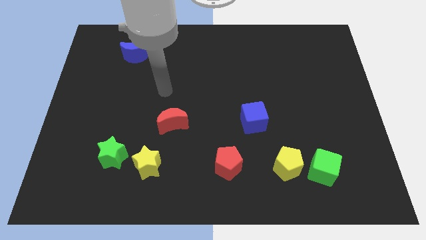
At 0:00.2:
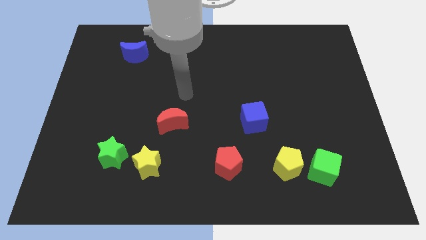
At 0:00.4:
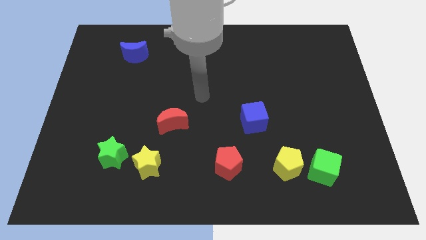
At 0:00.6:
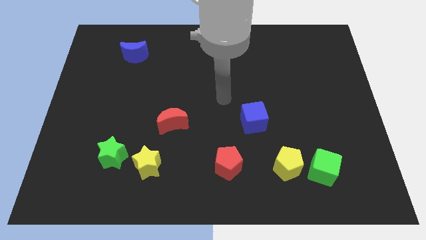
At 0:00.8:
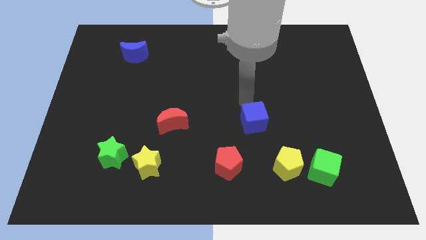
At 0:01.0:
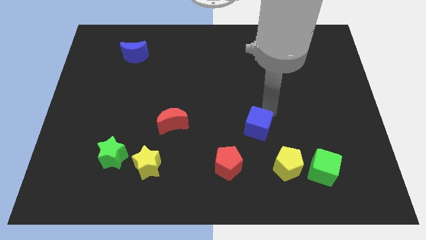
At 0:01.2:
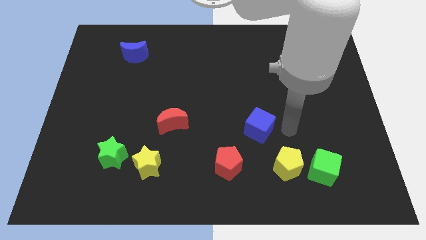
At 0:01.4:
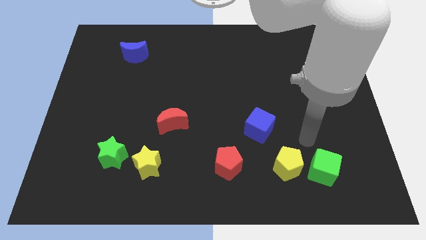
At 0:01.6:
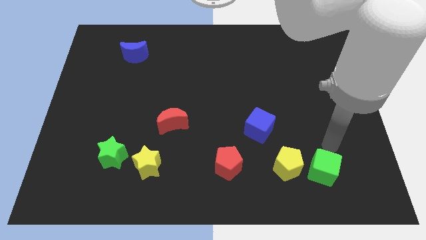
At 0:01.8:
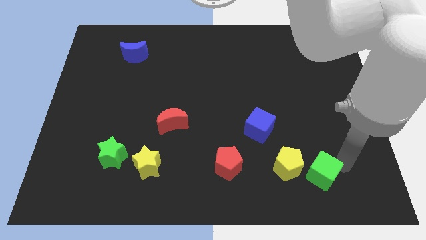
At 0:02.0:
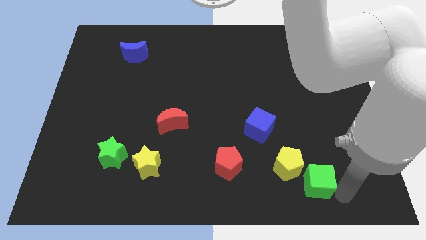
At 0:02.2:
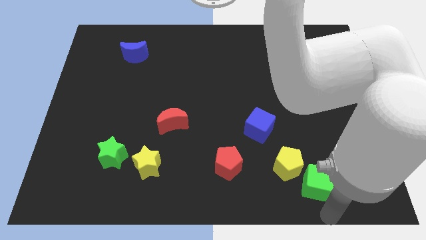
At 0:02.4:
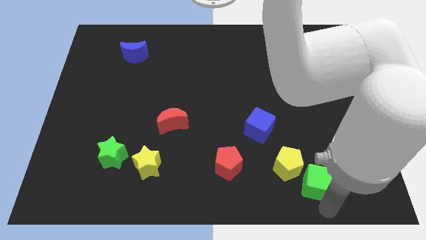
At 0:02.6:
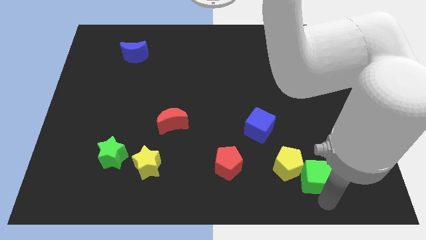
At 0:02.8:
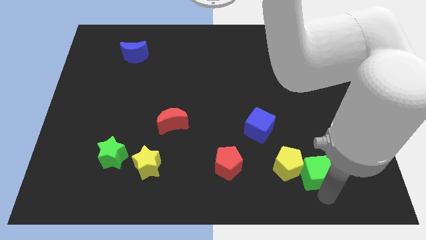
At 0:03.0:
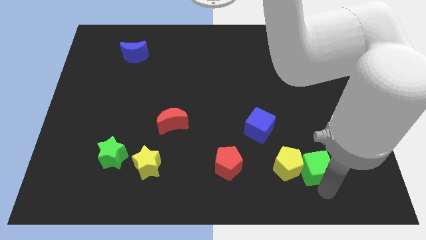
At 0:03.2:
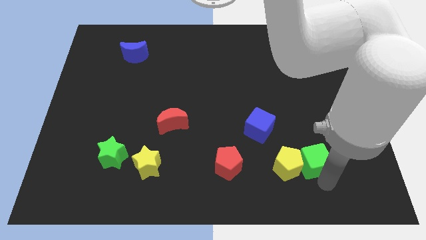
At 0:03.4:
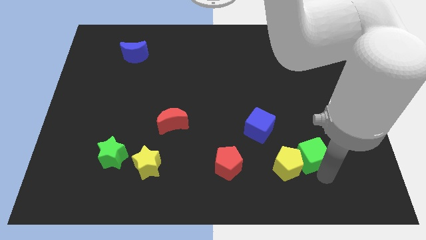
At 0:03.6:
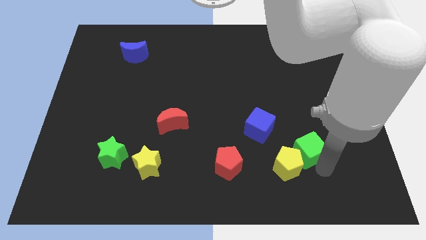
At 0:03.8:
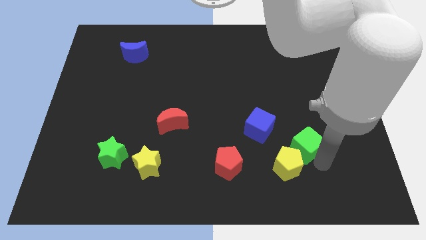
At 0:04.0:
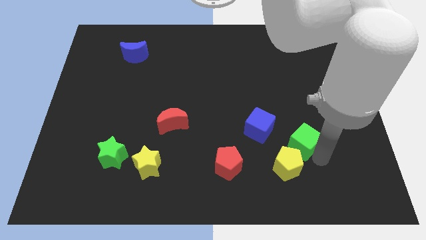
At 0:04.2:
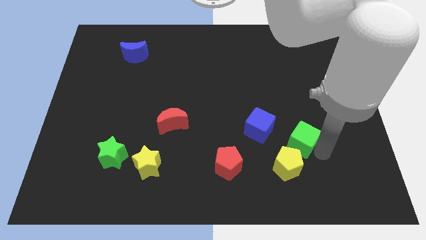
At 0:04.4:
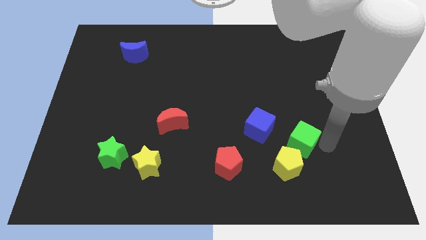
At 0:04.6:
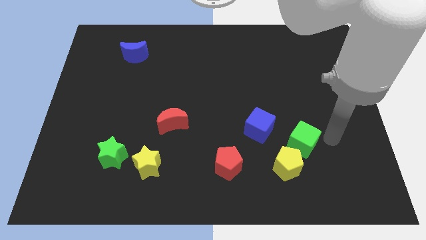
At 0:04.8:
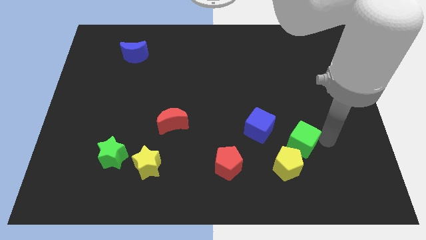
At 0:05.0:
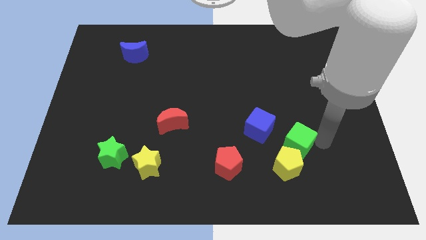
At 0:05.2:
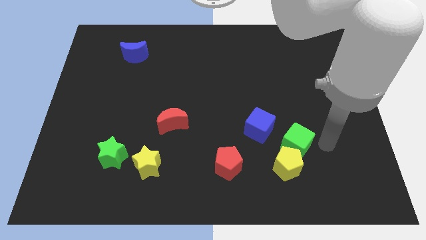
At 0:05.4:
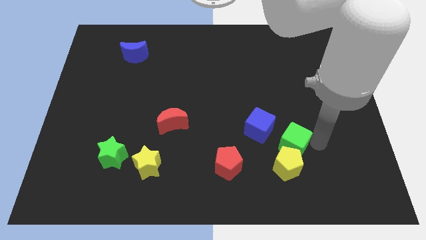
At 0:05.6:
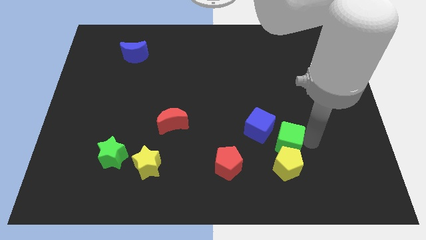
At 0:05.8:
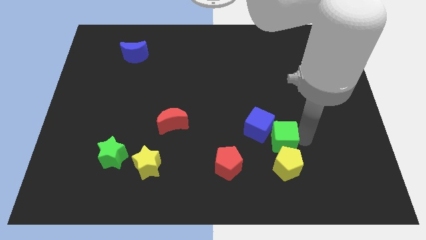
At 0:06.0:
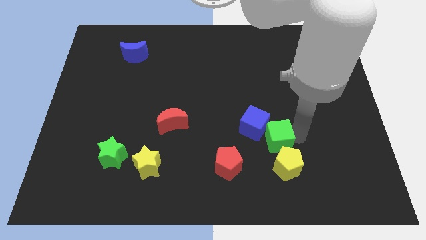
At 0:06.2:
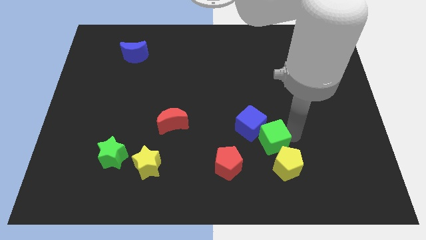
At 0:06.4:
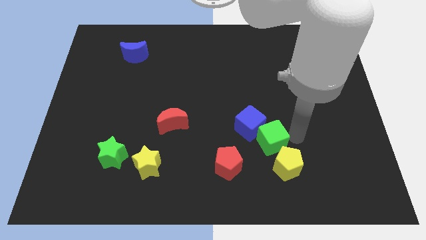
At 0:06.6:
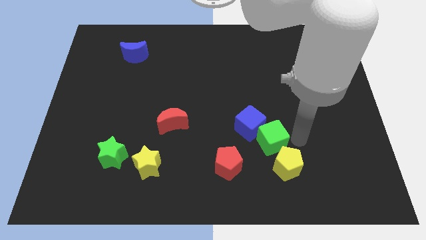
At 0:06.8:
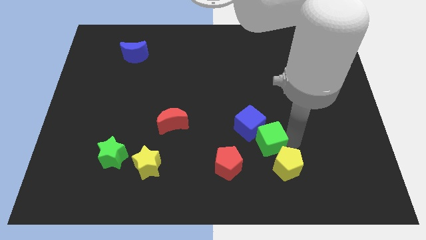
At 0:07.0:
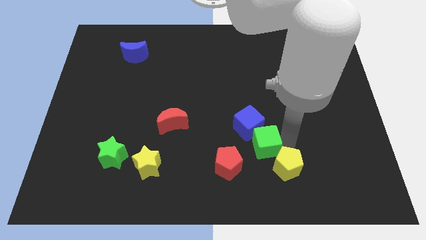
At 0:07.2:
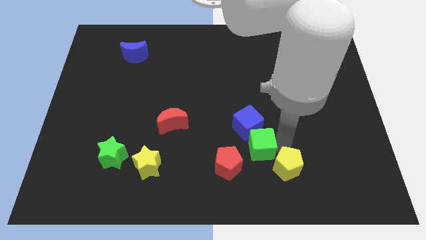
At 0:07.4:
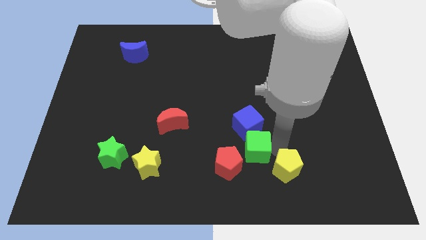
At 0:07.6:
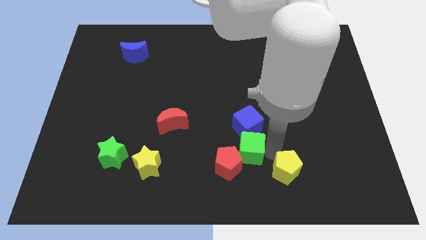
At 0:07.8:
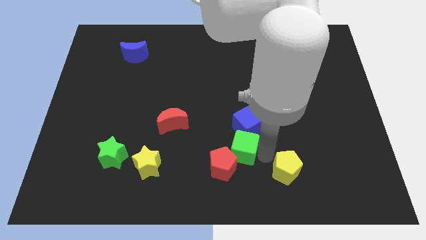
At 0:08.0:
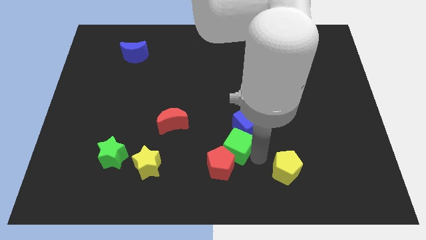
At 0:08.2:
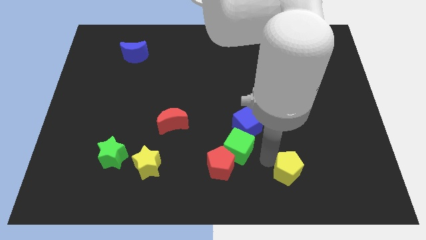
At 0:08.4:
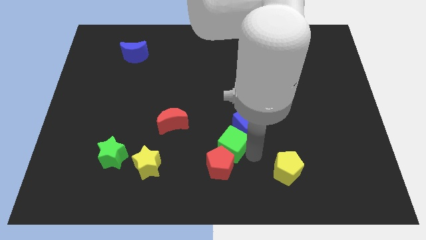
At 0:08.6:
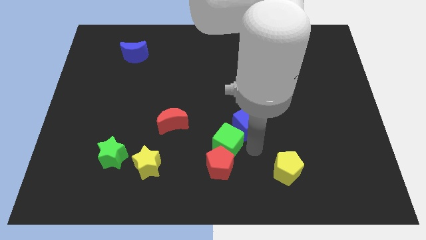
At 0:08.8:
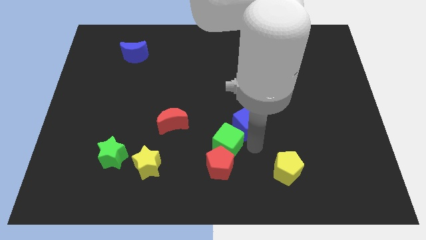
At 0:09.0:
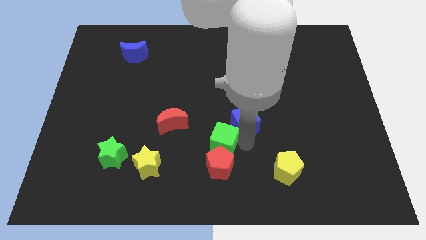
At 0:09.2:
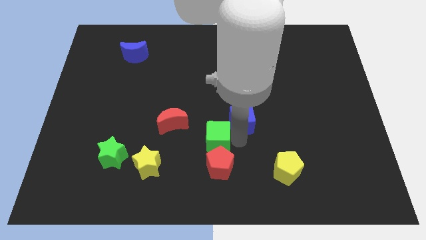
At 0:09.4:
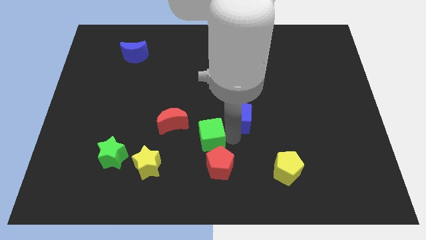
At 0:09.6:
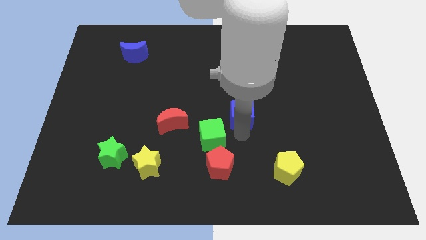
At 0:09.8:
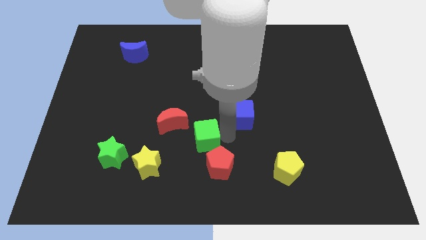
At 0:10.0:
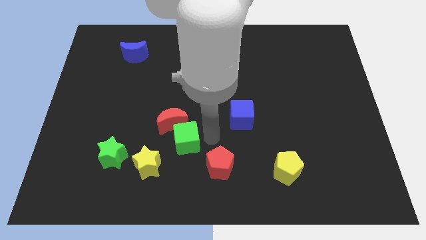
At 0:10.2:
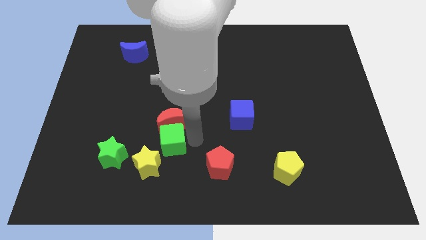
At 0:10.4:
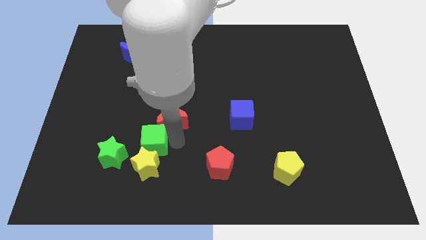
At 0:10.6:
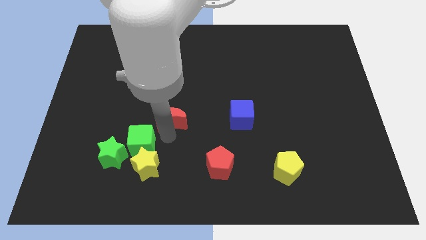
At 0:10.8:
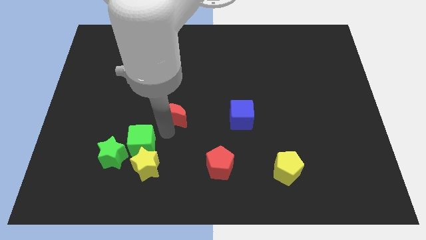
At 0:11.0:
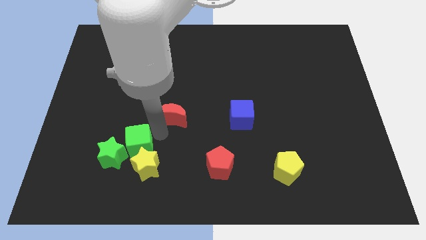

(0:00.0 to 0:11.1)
push the green cube towards the green star

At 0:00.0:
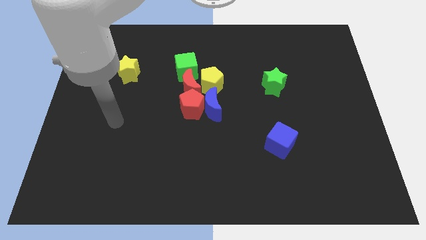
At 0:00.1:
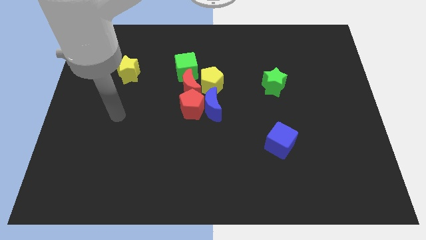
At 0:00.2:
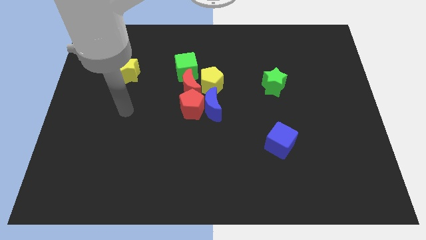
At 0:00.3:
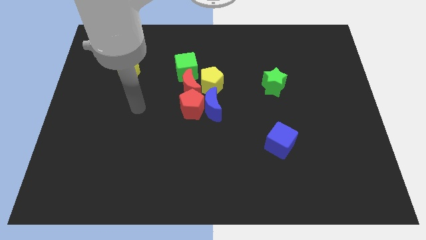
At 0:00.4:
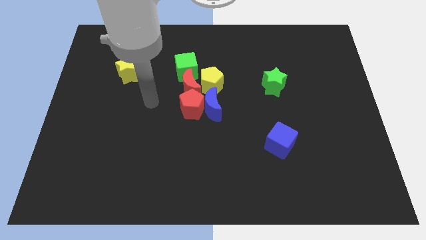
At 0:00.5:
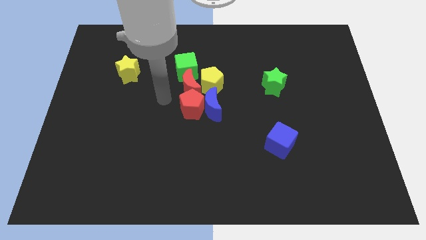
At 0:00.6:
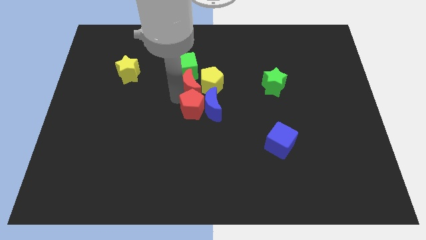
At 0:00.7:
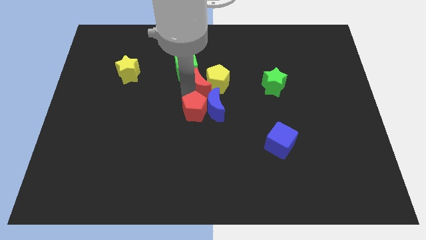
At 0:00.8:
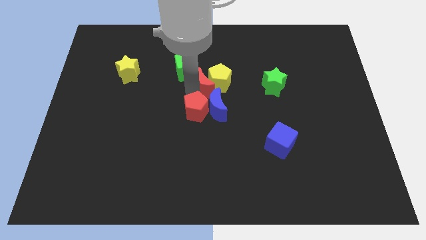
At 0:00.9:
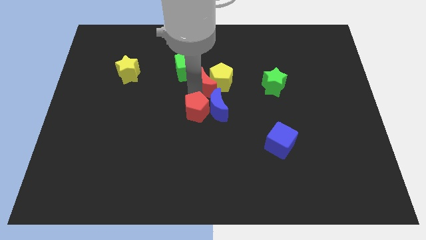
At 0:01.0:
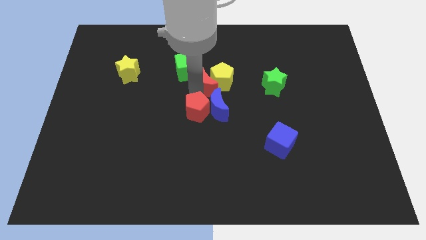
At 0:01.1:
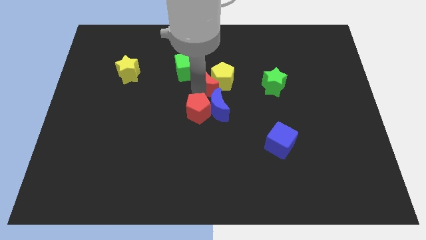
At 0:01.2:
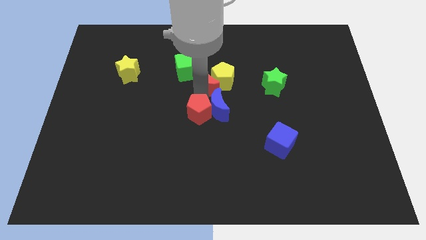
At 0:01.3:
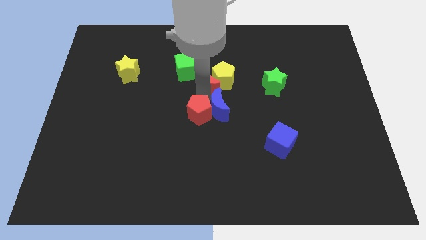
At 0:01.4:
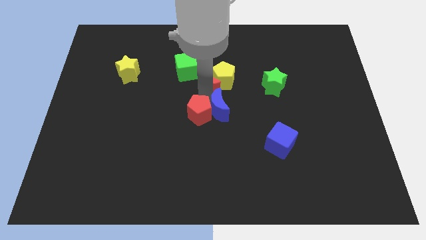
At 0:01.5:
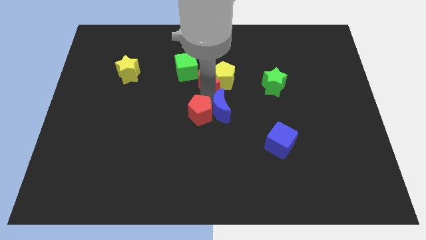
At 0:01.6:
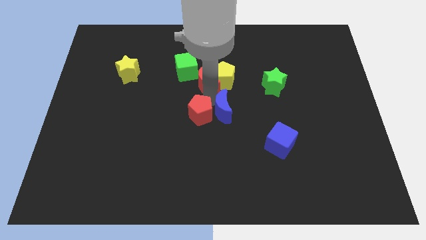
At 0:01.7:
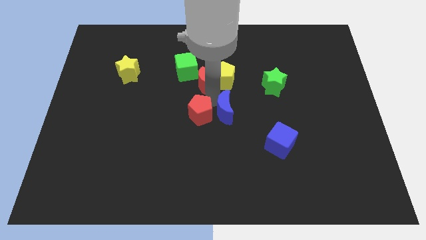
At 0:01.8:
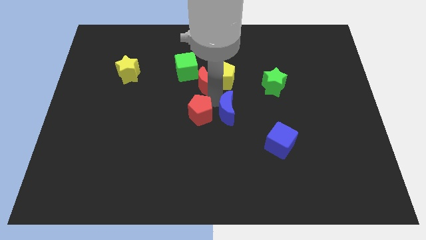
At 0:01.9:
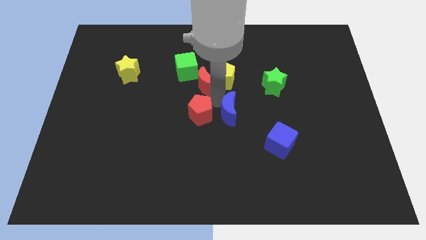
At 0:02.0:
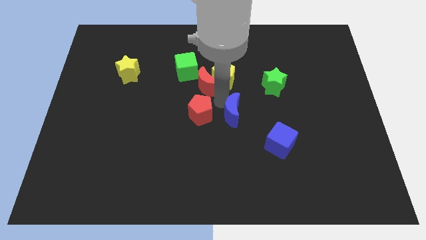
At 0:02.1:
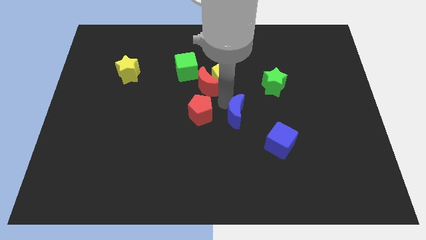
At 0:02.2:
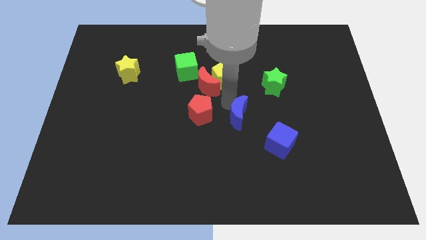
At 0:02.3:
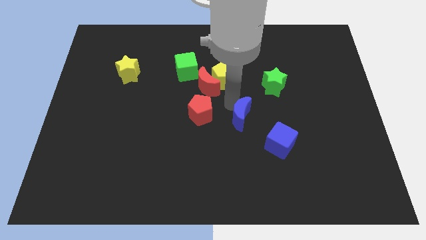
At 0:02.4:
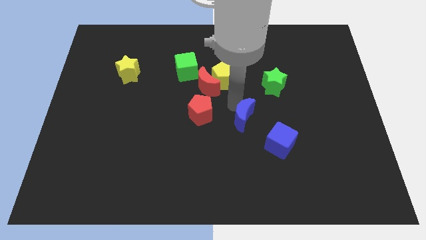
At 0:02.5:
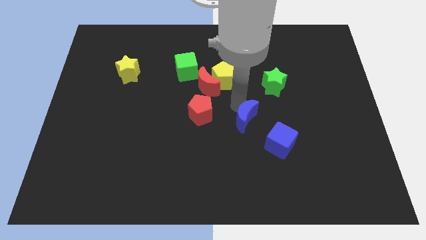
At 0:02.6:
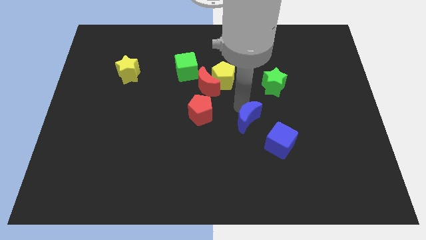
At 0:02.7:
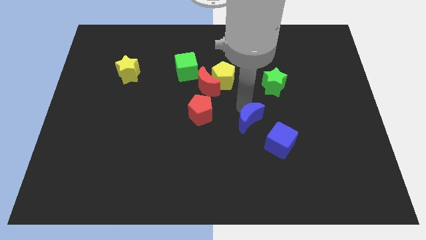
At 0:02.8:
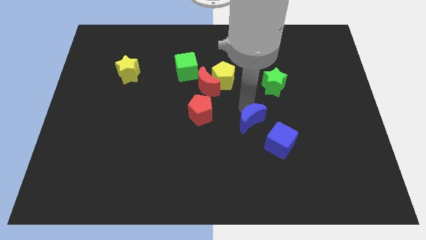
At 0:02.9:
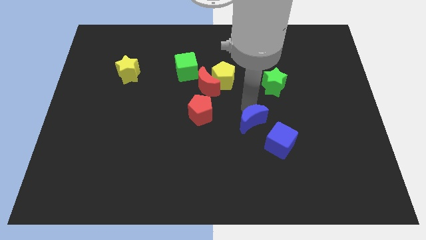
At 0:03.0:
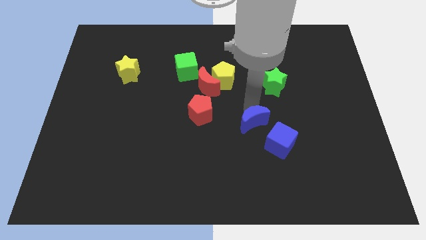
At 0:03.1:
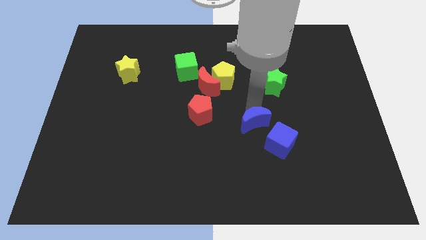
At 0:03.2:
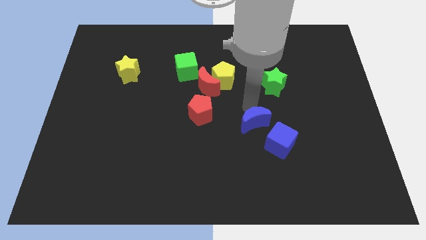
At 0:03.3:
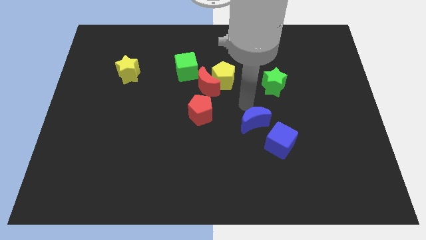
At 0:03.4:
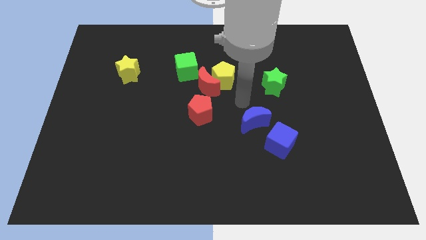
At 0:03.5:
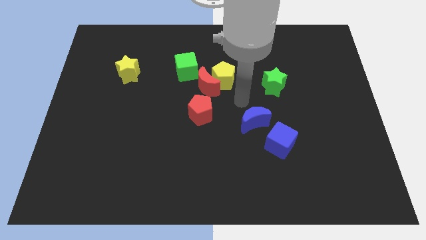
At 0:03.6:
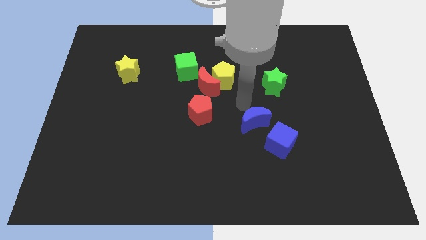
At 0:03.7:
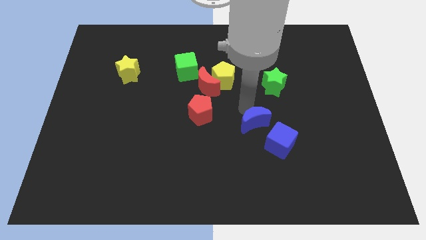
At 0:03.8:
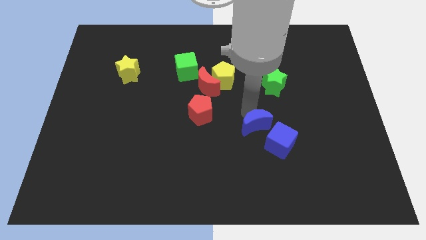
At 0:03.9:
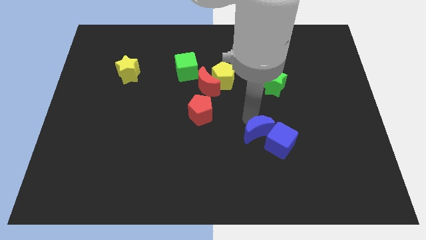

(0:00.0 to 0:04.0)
push the blue moon next to the blue cube
